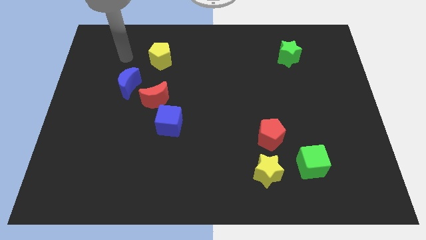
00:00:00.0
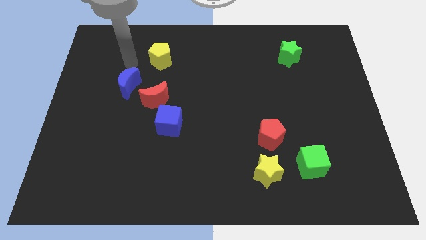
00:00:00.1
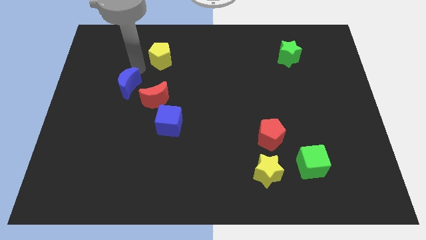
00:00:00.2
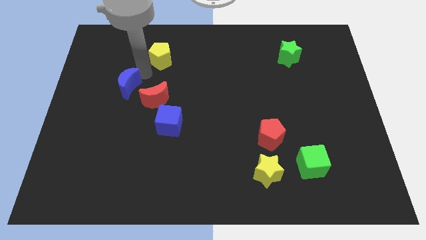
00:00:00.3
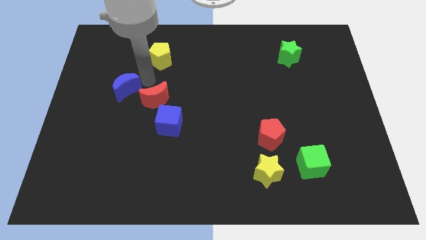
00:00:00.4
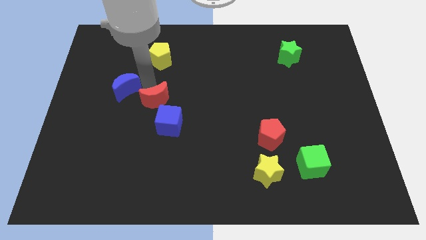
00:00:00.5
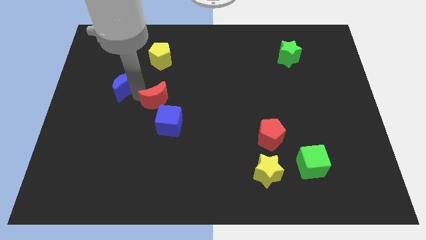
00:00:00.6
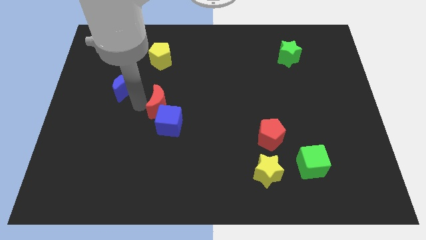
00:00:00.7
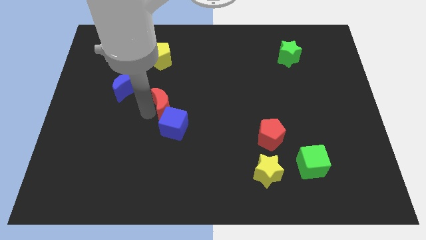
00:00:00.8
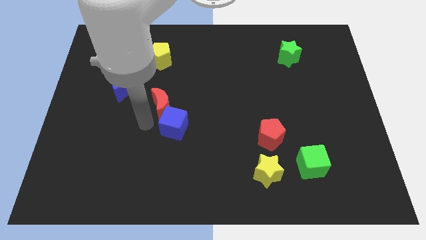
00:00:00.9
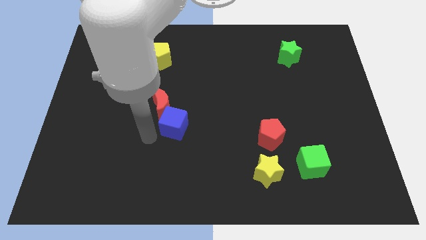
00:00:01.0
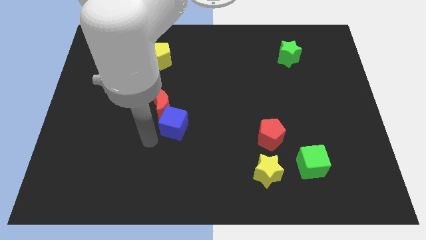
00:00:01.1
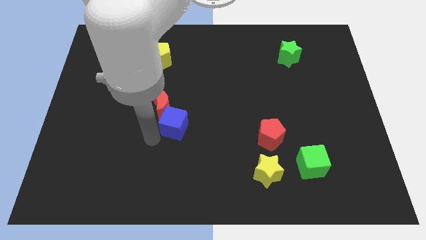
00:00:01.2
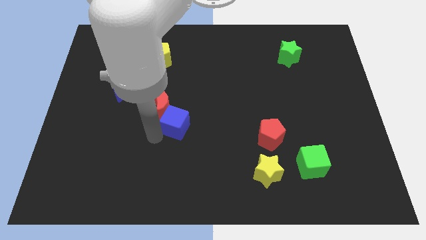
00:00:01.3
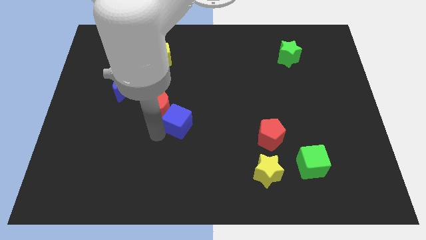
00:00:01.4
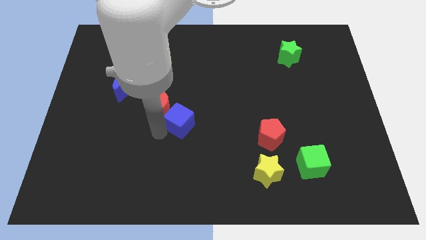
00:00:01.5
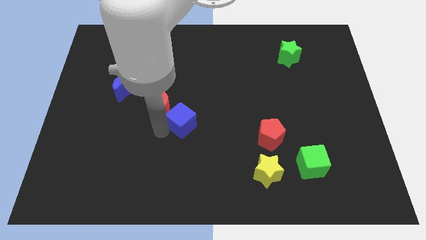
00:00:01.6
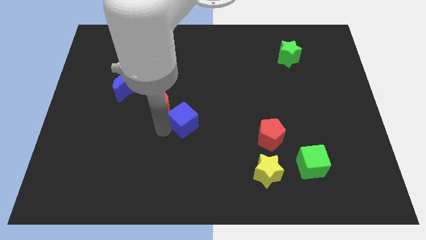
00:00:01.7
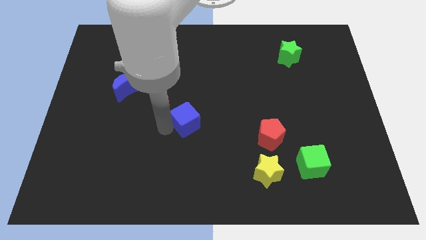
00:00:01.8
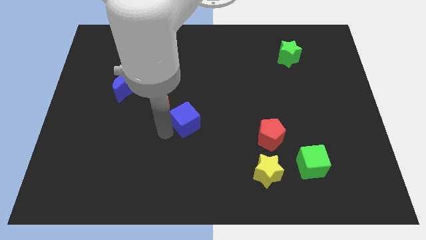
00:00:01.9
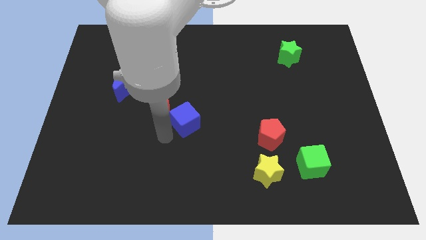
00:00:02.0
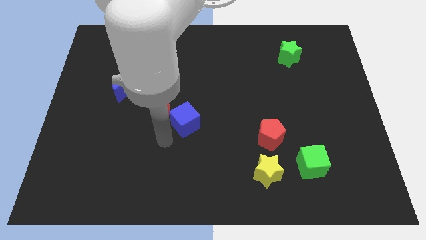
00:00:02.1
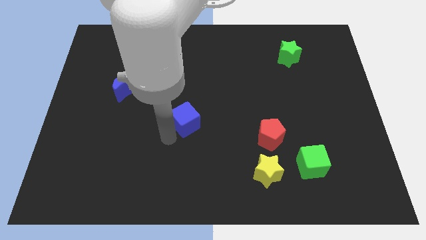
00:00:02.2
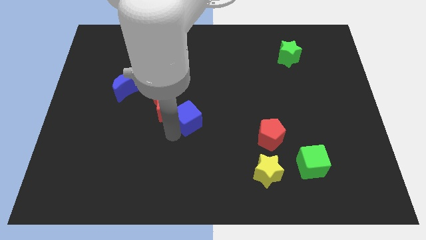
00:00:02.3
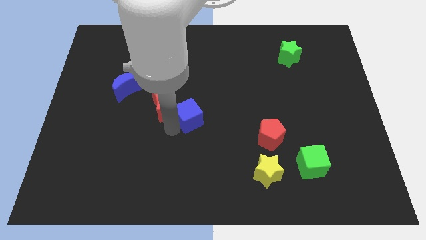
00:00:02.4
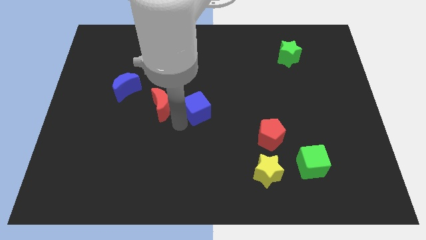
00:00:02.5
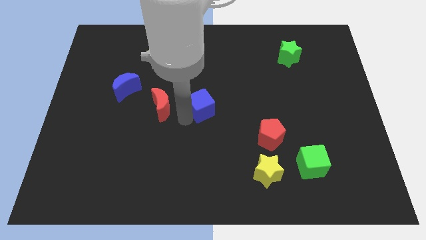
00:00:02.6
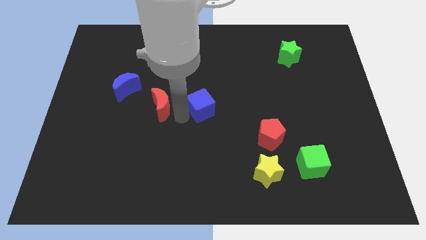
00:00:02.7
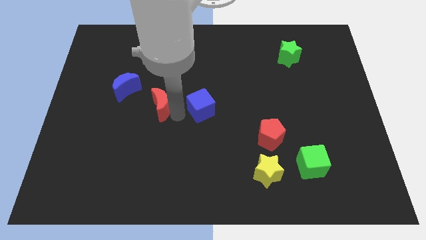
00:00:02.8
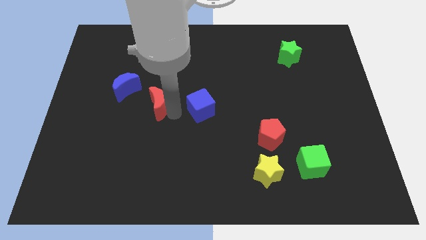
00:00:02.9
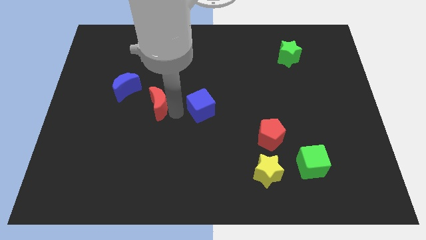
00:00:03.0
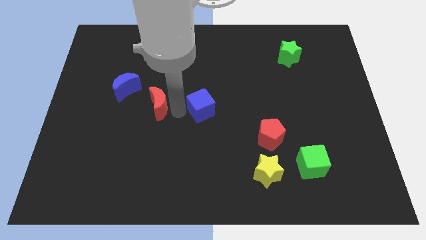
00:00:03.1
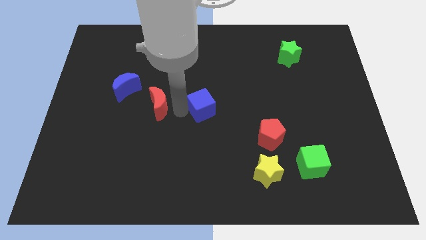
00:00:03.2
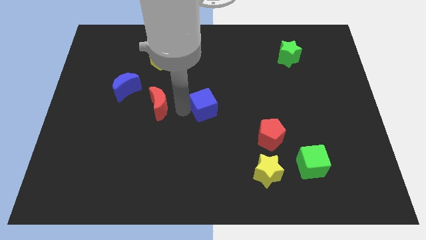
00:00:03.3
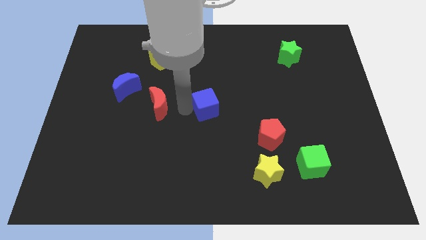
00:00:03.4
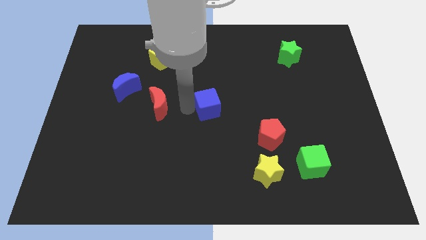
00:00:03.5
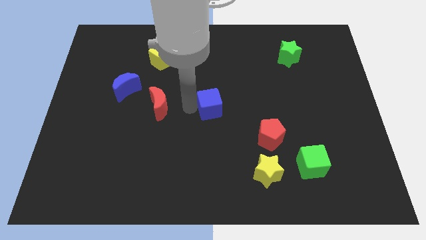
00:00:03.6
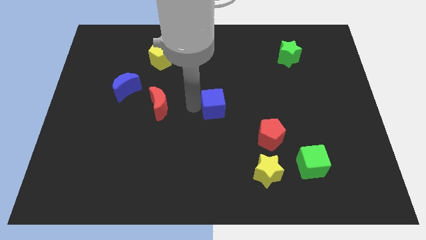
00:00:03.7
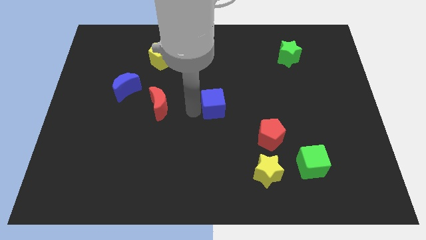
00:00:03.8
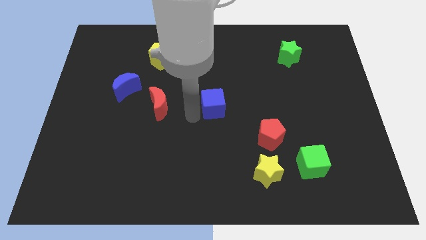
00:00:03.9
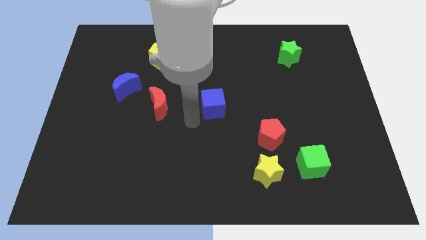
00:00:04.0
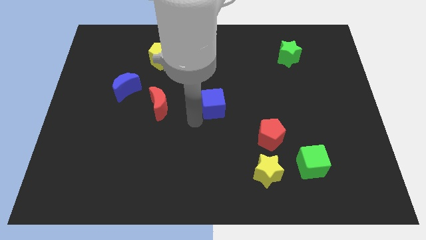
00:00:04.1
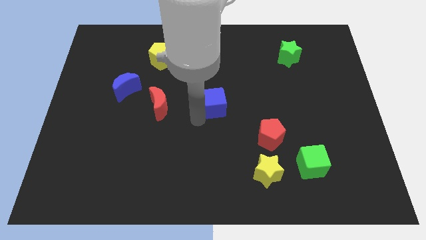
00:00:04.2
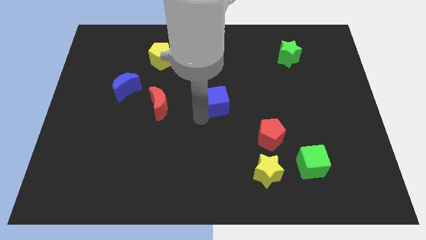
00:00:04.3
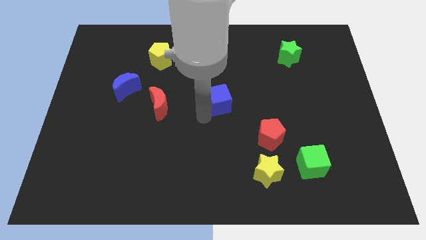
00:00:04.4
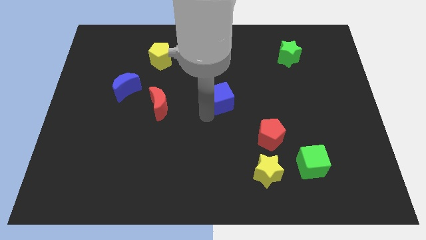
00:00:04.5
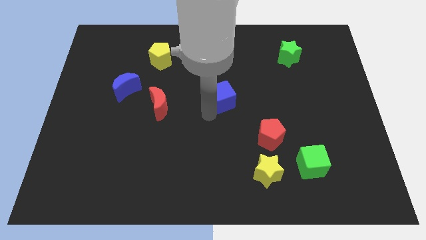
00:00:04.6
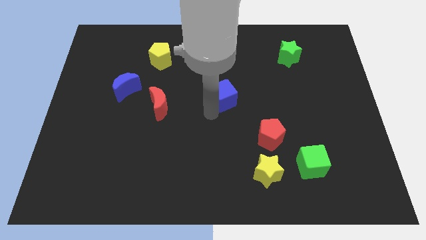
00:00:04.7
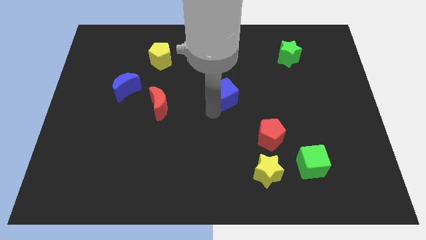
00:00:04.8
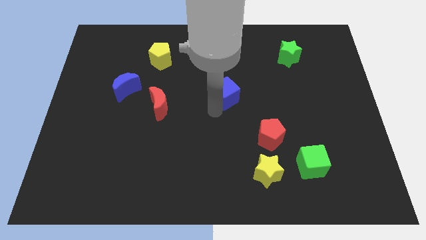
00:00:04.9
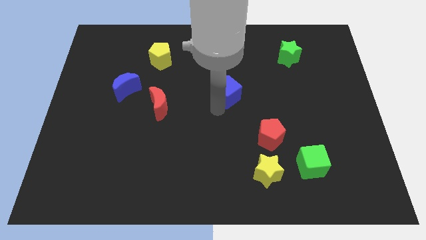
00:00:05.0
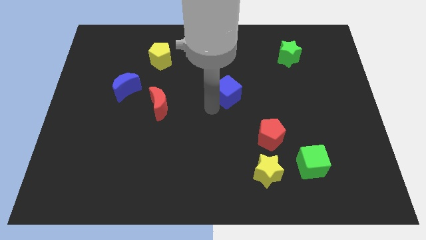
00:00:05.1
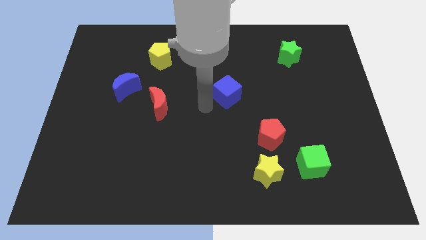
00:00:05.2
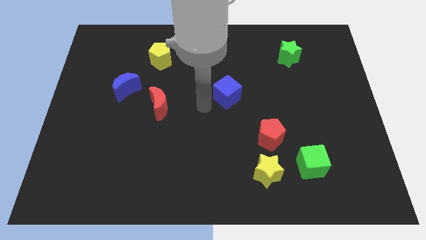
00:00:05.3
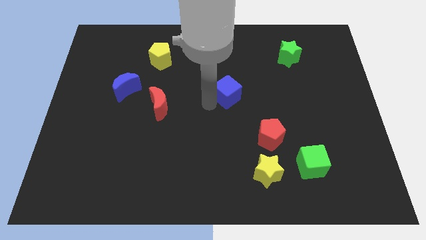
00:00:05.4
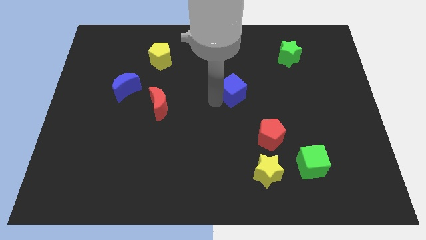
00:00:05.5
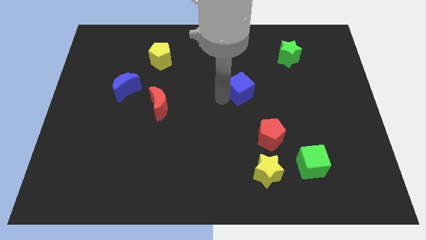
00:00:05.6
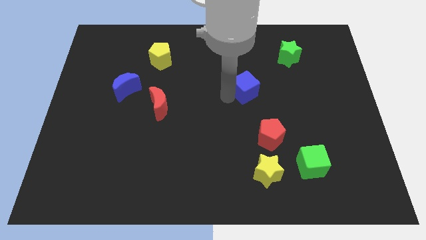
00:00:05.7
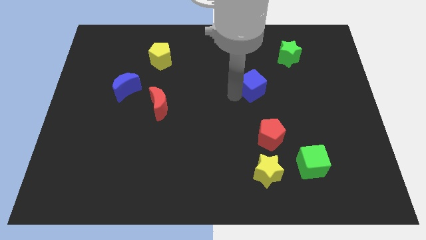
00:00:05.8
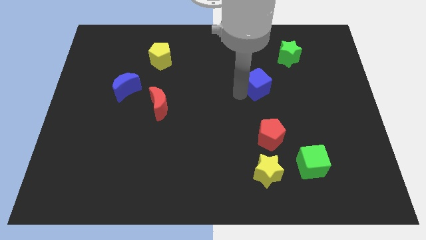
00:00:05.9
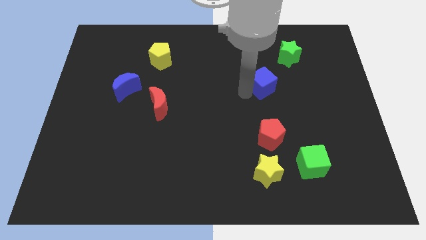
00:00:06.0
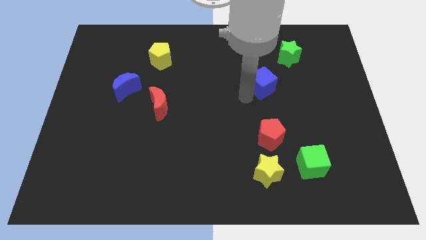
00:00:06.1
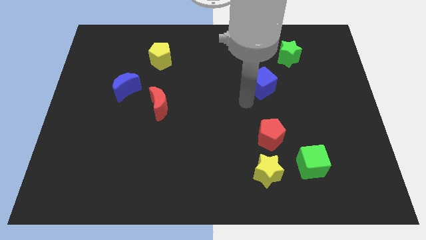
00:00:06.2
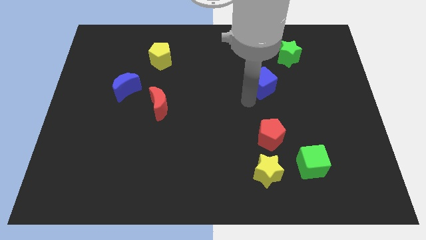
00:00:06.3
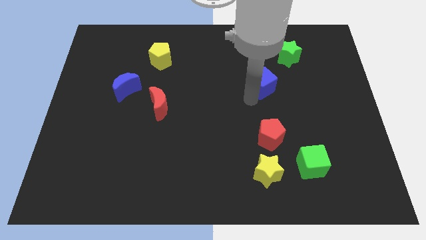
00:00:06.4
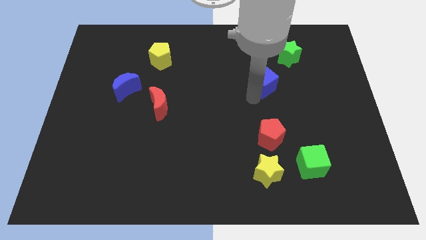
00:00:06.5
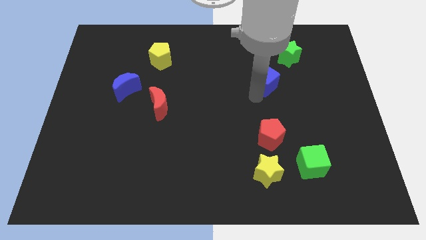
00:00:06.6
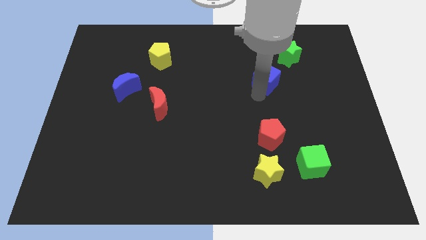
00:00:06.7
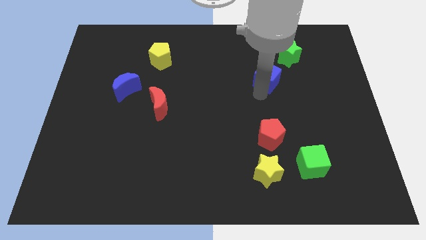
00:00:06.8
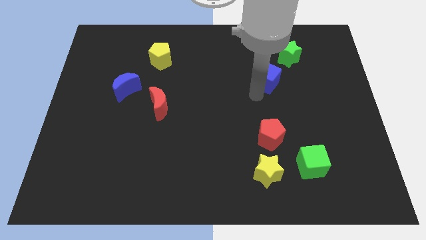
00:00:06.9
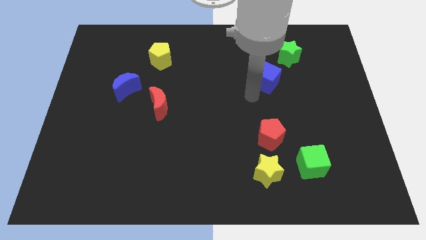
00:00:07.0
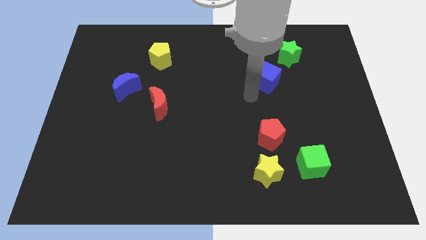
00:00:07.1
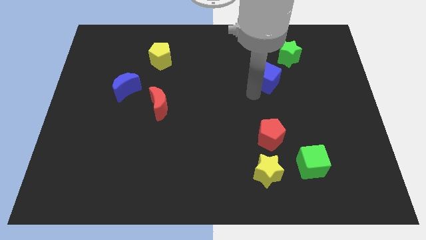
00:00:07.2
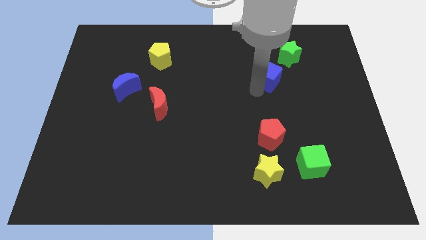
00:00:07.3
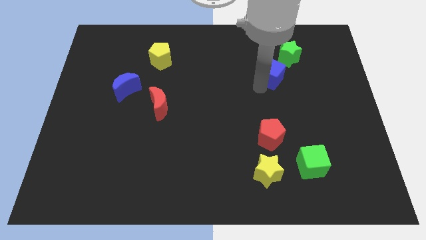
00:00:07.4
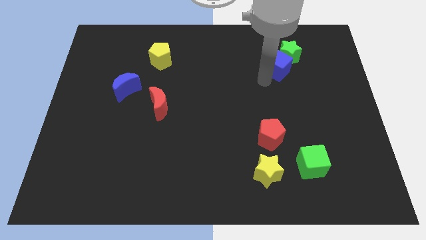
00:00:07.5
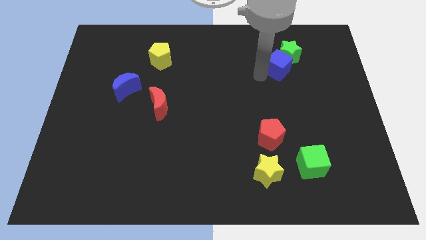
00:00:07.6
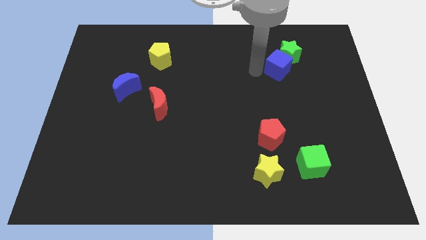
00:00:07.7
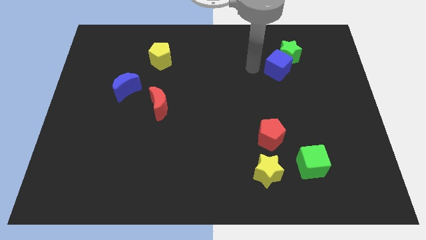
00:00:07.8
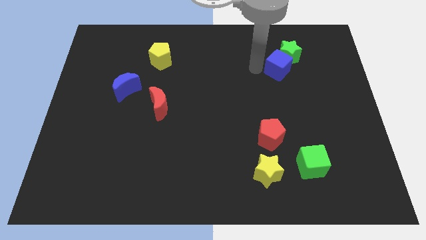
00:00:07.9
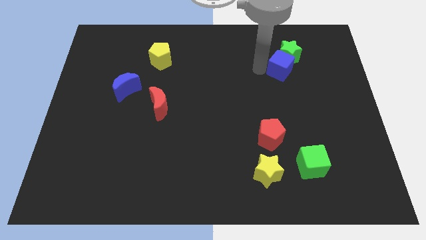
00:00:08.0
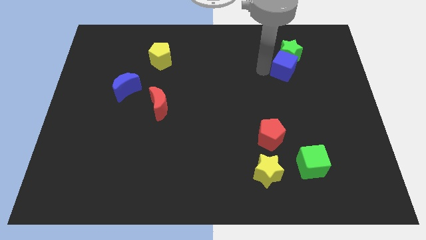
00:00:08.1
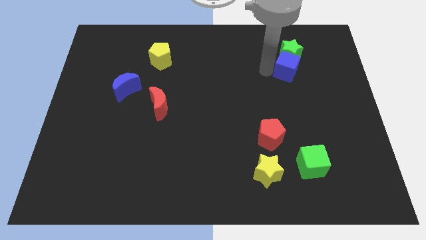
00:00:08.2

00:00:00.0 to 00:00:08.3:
move the blue cube to the bottom right side of the green star
